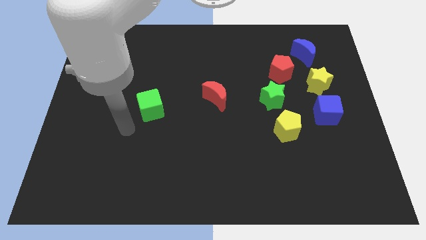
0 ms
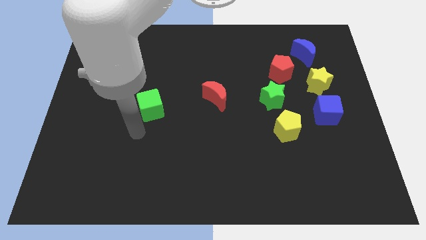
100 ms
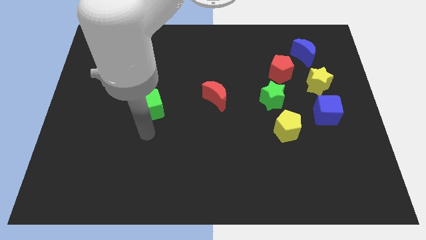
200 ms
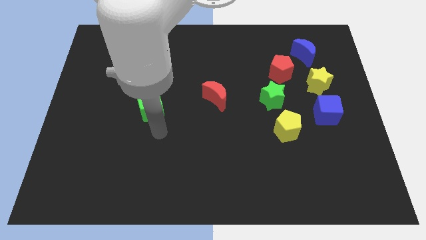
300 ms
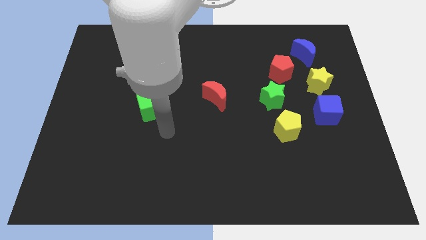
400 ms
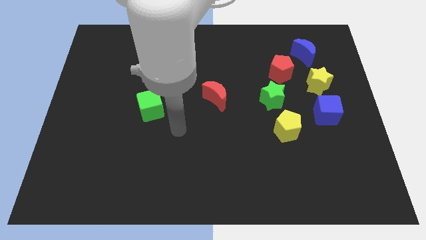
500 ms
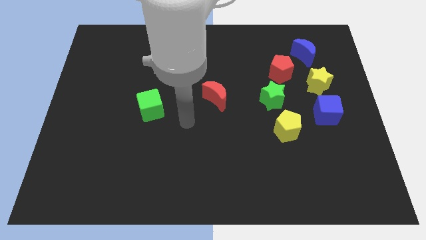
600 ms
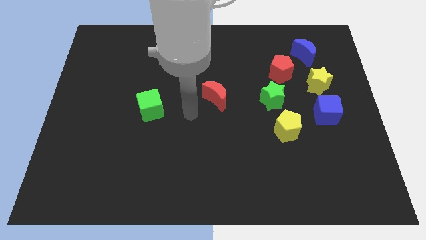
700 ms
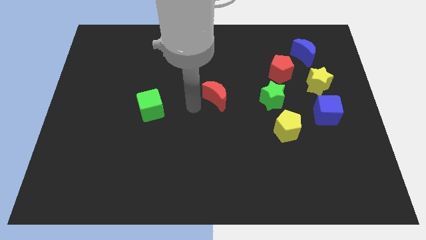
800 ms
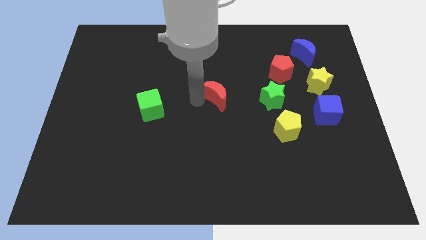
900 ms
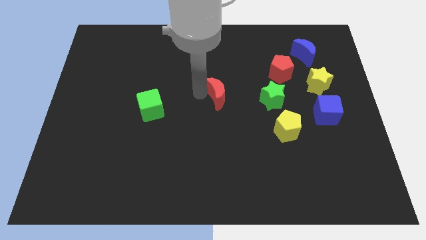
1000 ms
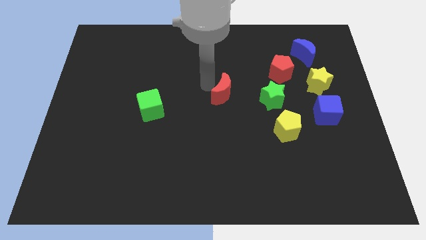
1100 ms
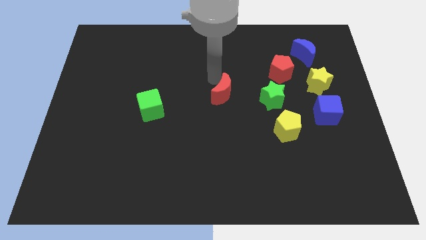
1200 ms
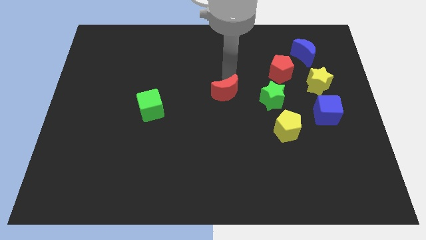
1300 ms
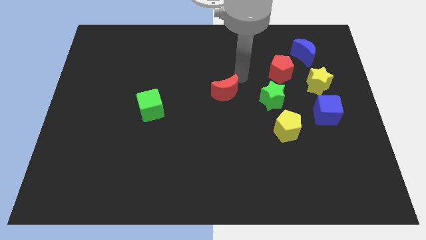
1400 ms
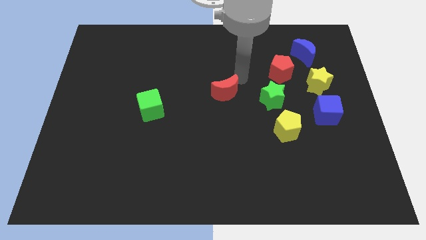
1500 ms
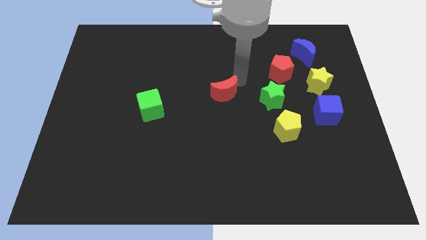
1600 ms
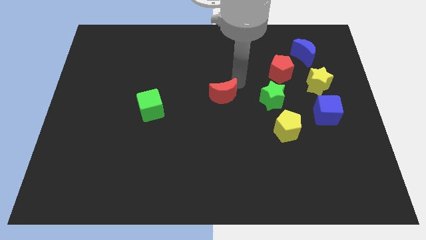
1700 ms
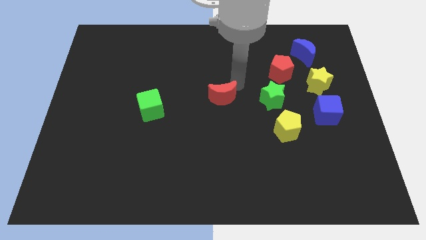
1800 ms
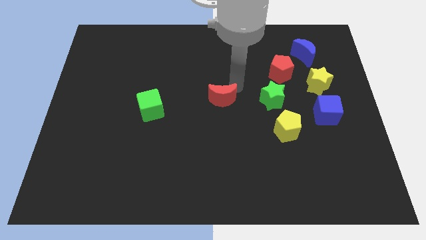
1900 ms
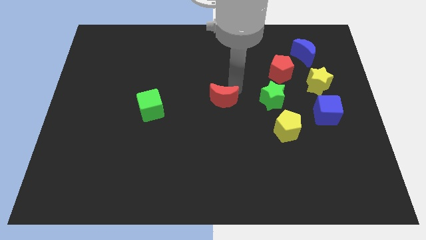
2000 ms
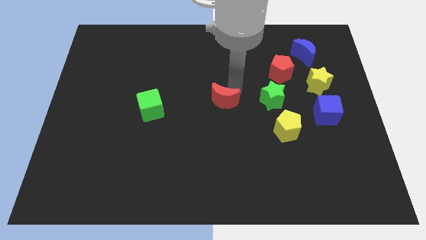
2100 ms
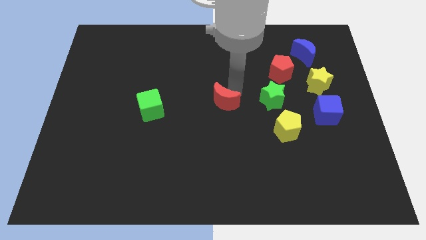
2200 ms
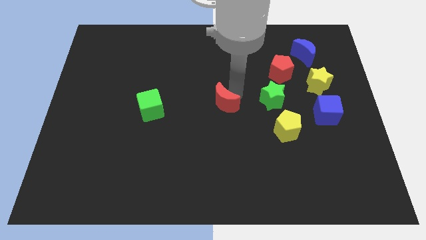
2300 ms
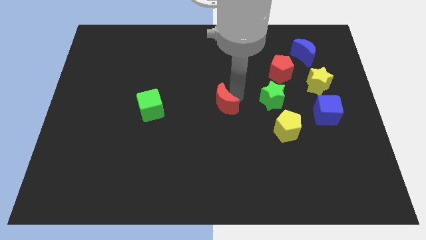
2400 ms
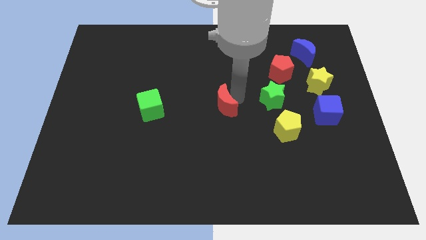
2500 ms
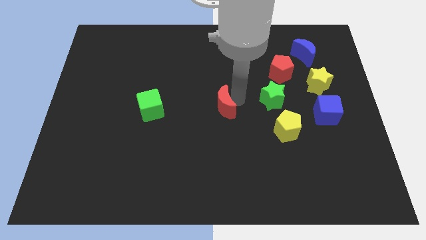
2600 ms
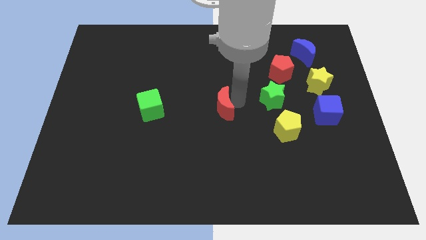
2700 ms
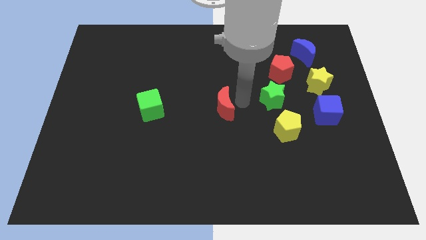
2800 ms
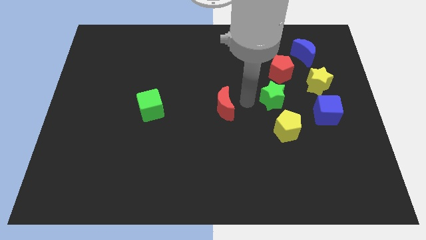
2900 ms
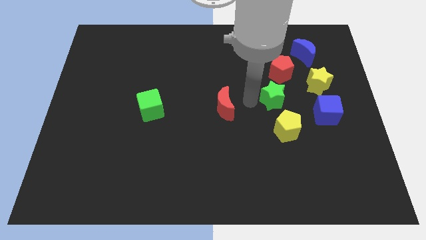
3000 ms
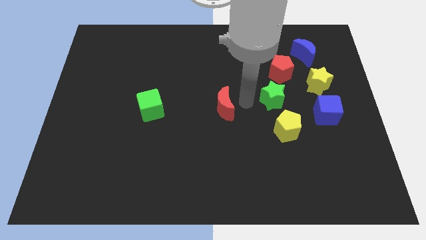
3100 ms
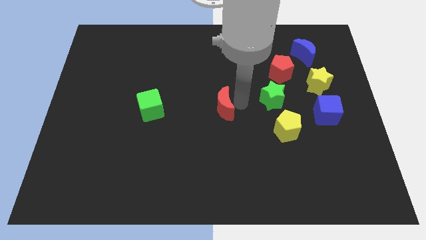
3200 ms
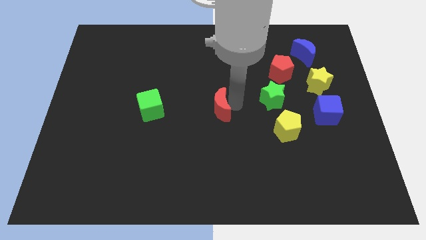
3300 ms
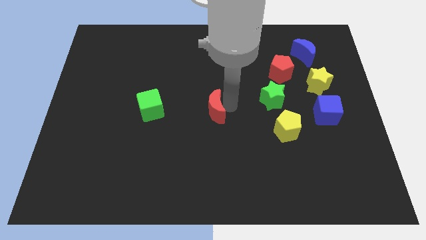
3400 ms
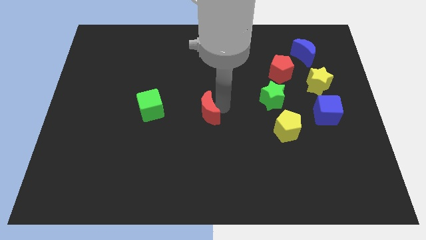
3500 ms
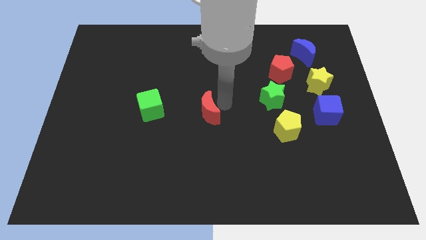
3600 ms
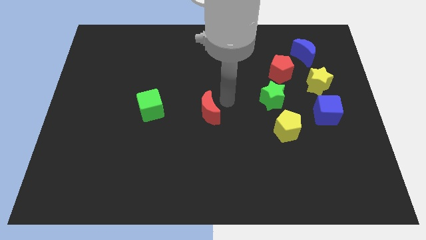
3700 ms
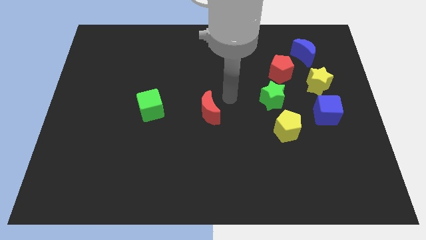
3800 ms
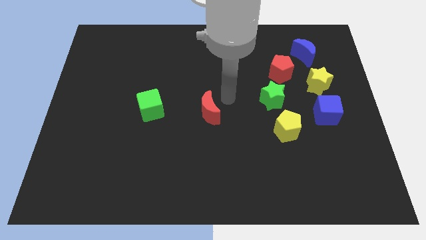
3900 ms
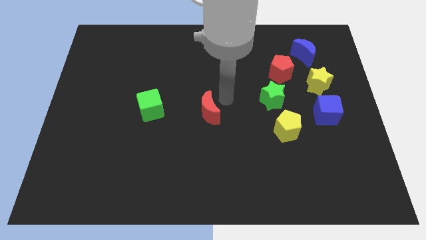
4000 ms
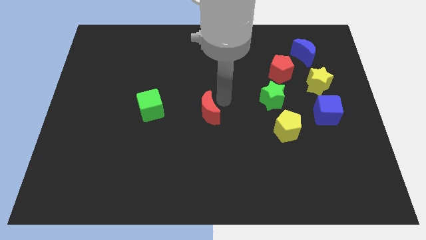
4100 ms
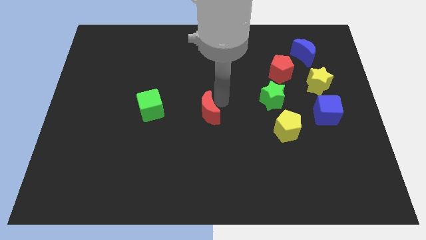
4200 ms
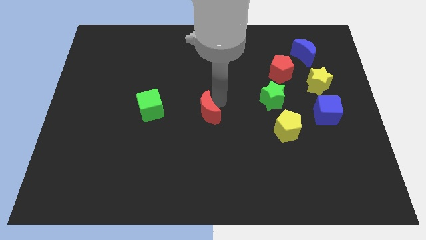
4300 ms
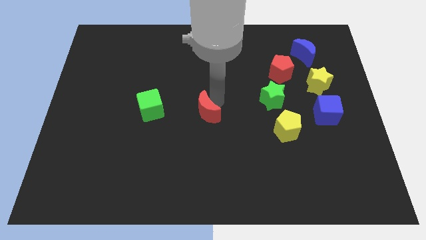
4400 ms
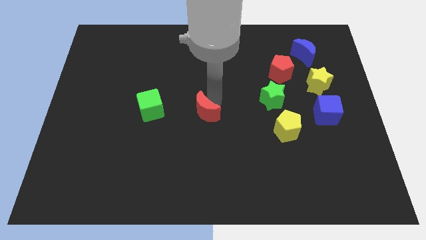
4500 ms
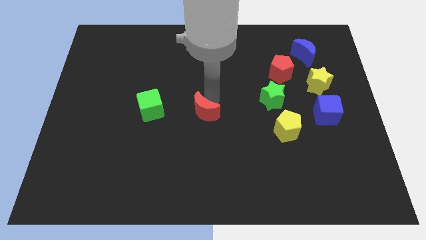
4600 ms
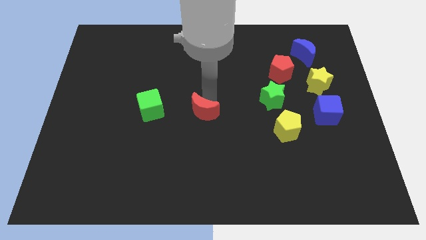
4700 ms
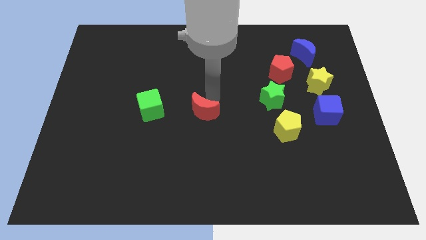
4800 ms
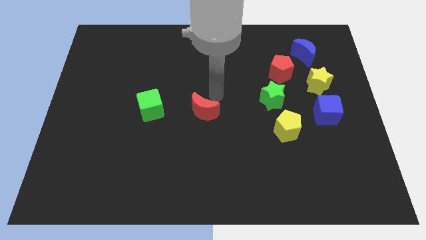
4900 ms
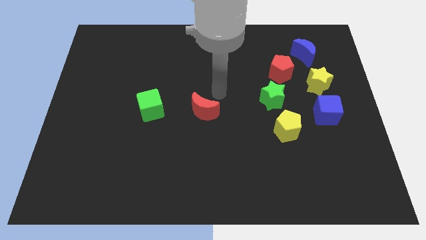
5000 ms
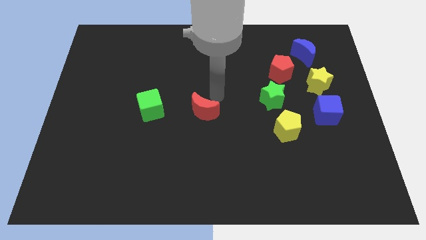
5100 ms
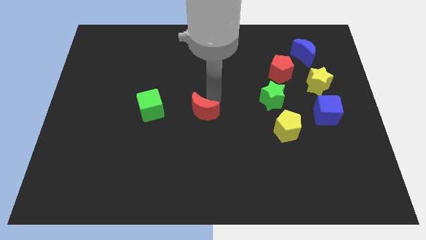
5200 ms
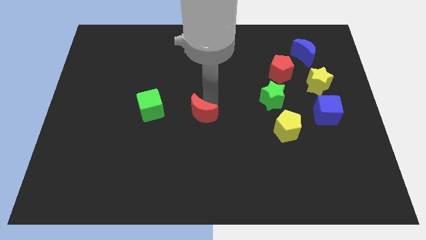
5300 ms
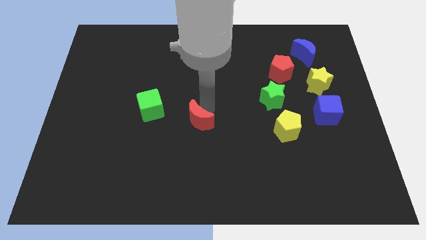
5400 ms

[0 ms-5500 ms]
slide the red moon down and then left slightly

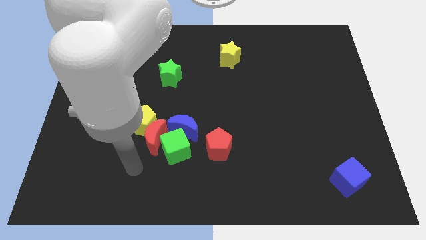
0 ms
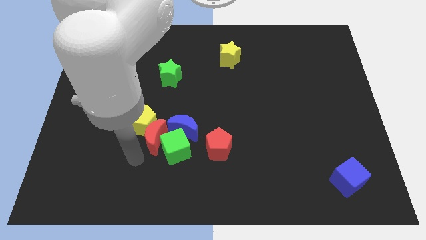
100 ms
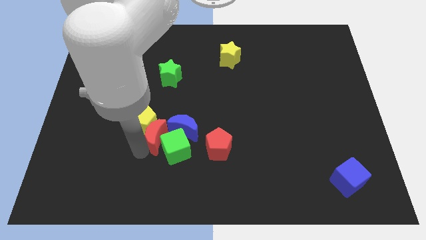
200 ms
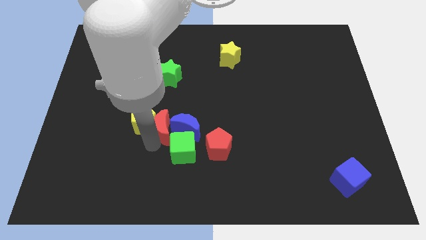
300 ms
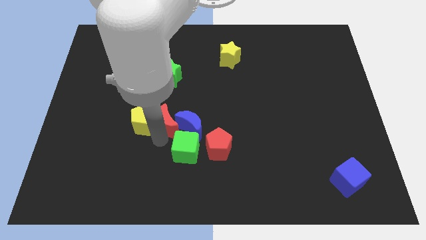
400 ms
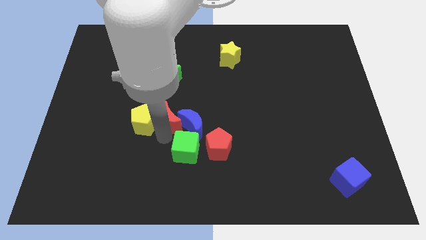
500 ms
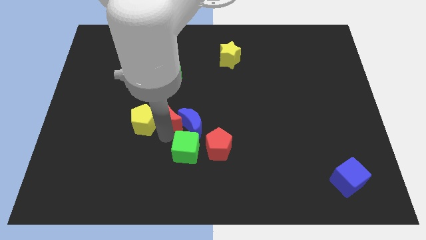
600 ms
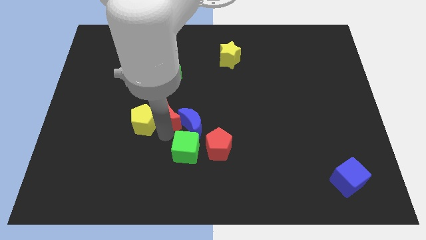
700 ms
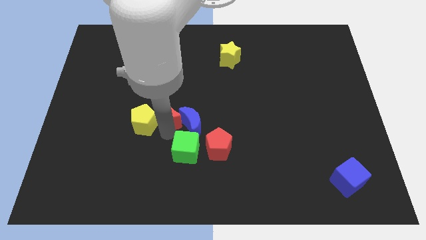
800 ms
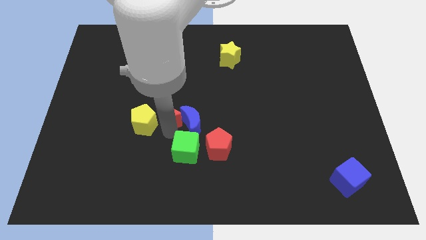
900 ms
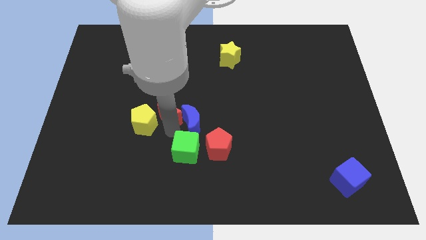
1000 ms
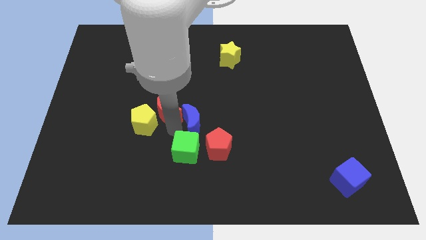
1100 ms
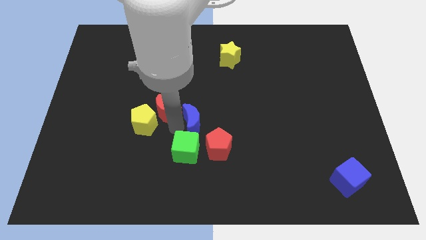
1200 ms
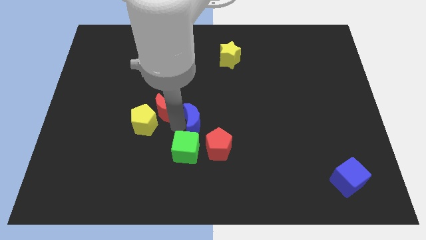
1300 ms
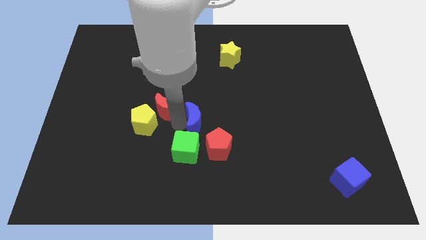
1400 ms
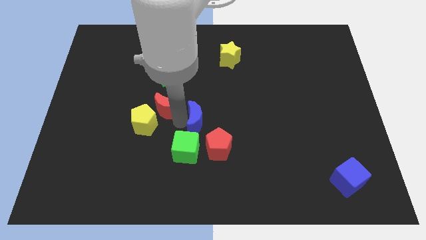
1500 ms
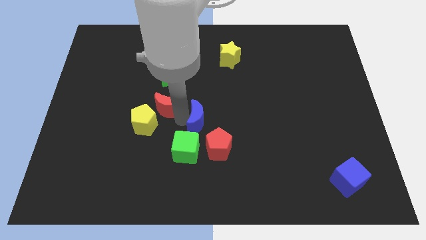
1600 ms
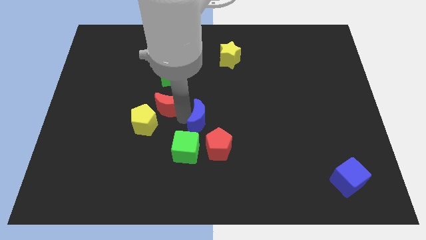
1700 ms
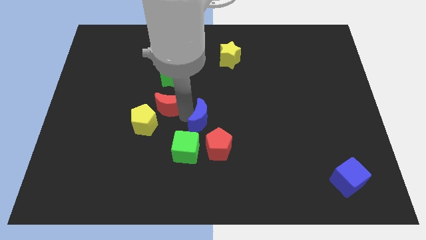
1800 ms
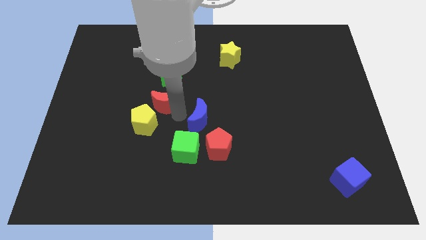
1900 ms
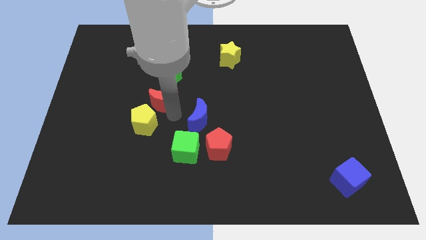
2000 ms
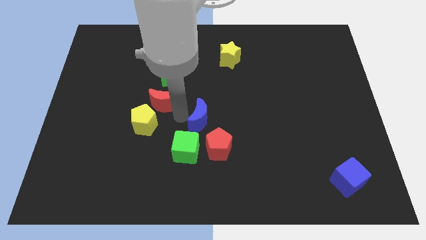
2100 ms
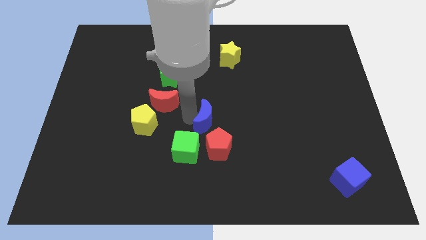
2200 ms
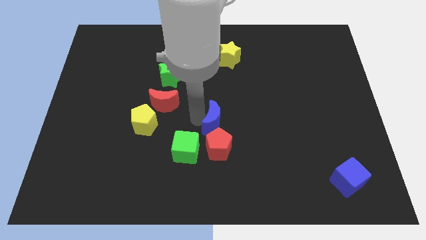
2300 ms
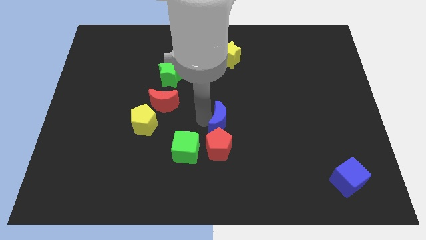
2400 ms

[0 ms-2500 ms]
move the blue moon right somewhat
